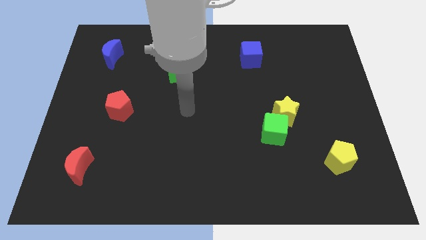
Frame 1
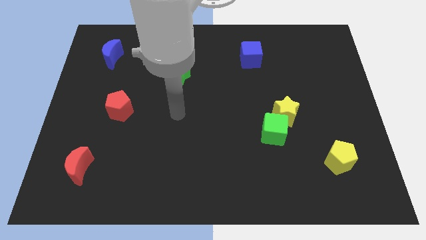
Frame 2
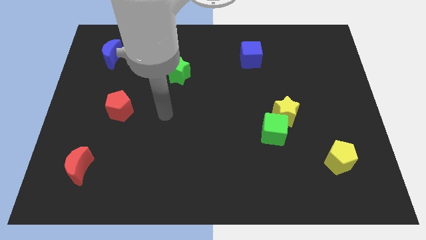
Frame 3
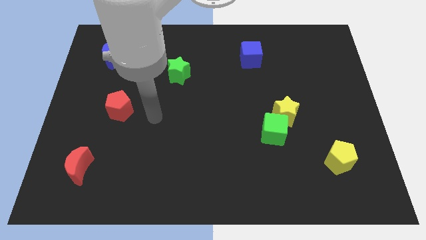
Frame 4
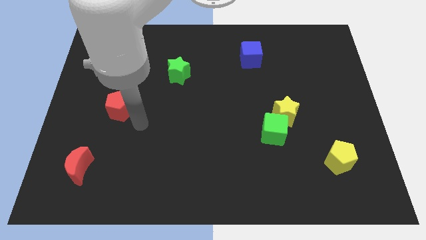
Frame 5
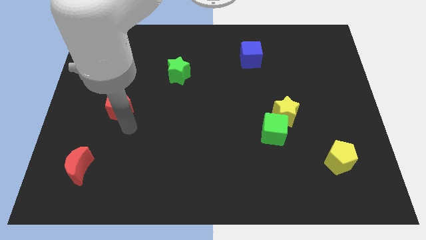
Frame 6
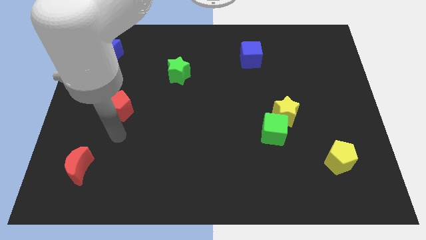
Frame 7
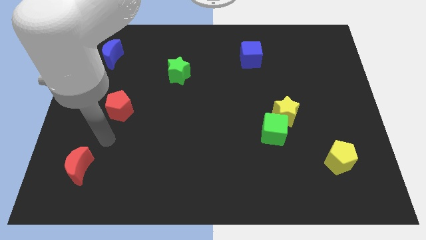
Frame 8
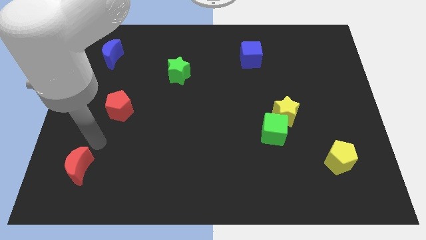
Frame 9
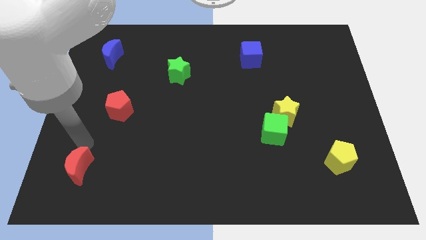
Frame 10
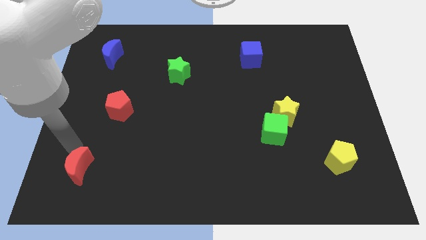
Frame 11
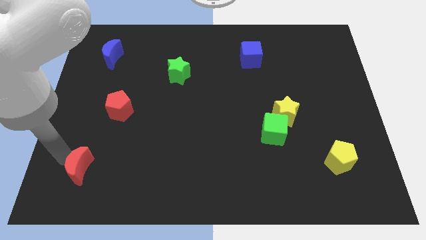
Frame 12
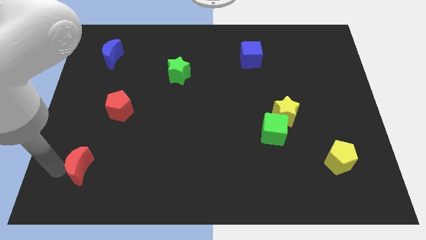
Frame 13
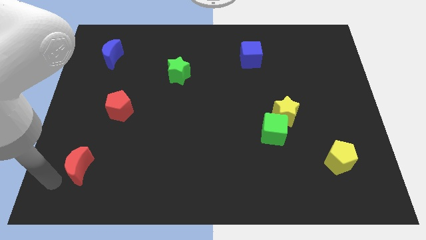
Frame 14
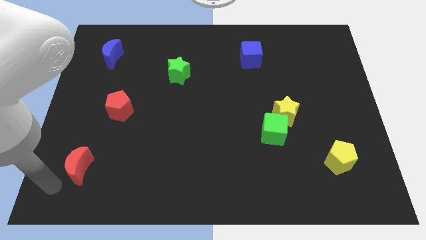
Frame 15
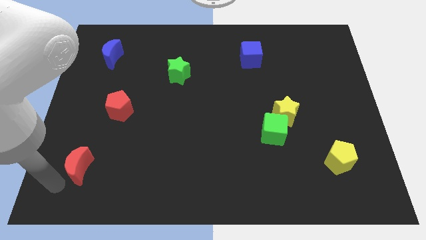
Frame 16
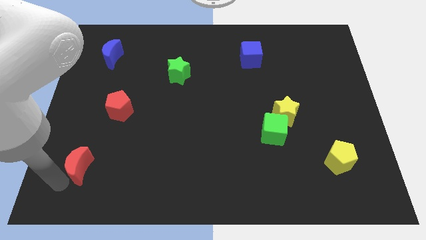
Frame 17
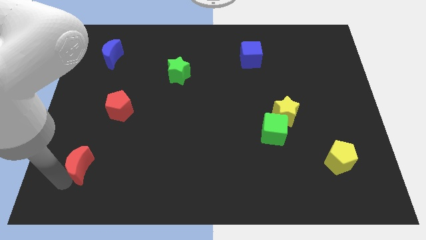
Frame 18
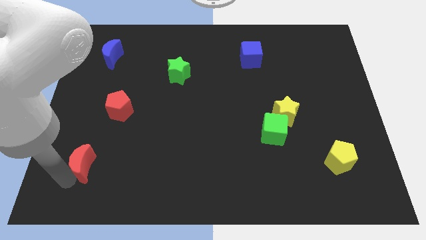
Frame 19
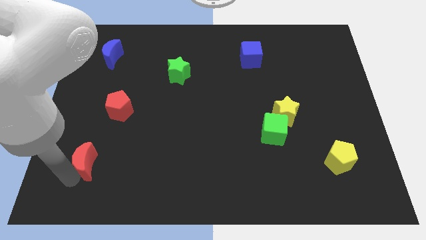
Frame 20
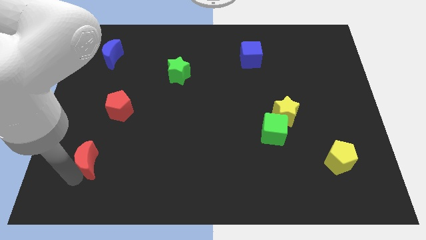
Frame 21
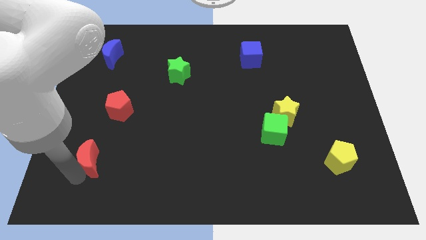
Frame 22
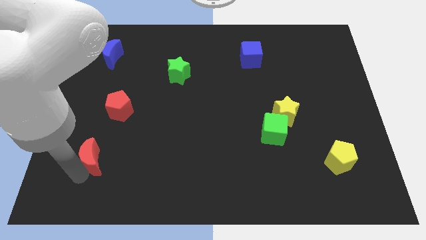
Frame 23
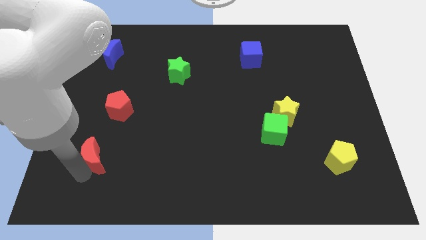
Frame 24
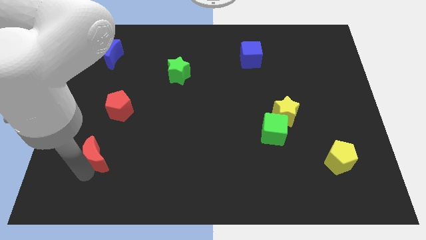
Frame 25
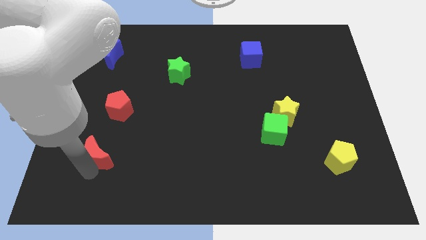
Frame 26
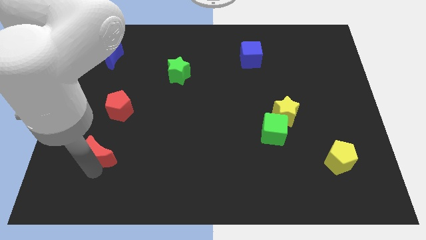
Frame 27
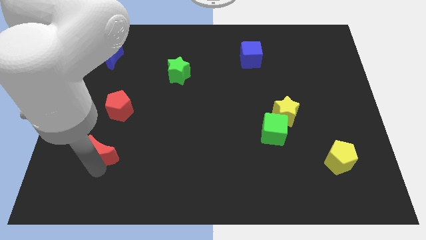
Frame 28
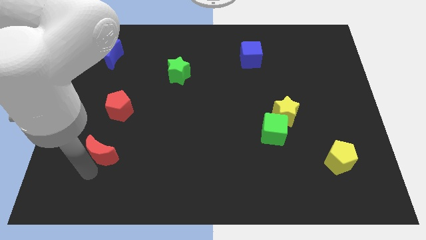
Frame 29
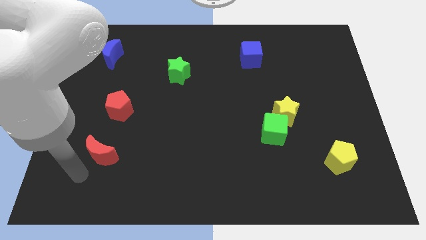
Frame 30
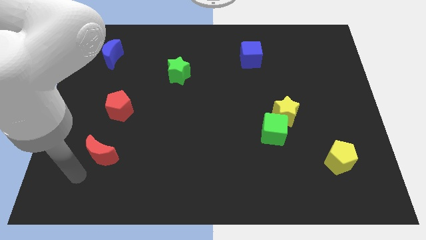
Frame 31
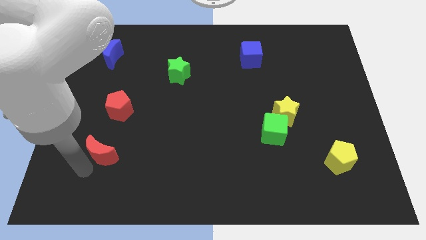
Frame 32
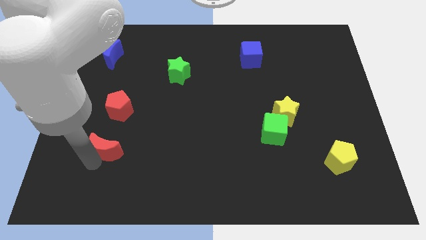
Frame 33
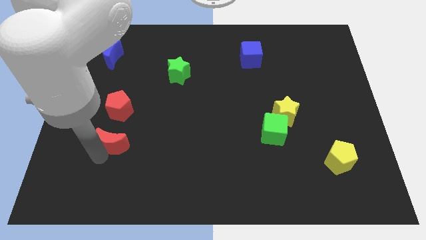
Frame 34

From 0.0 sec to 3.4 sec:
move the red moon a little bit up and then to the right

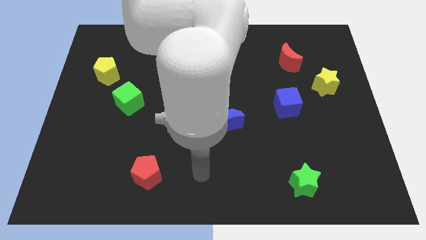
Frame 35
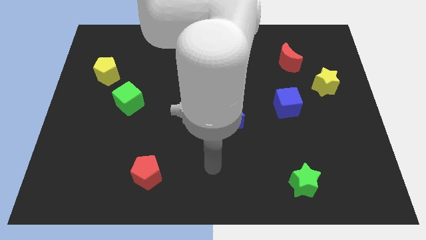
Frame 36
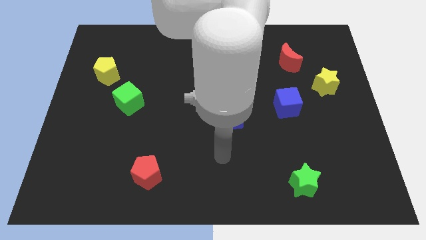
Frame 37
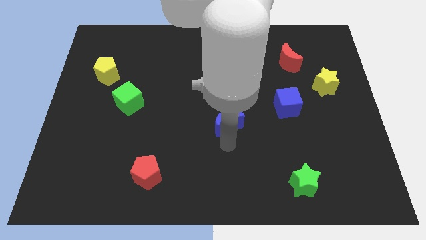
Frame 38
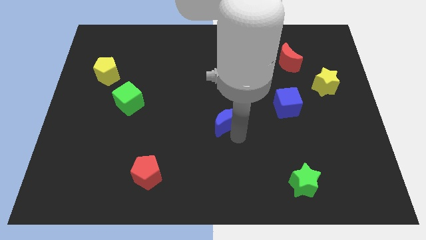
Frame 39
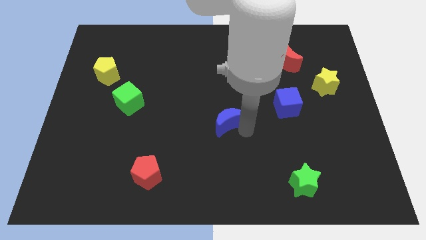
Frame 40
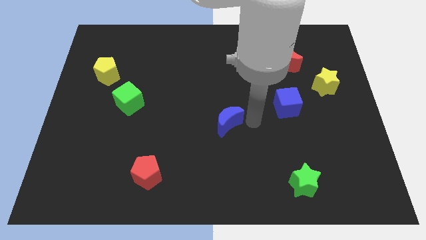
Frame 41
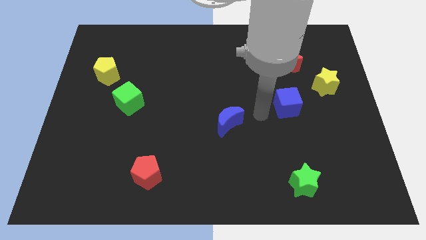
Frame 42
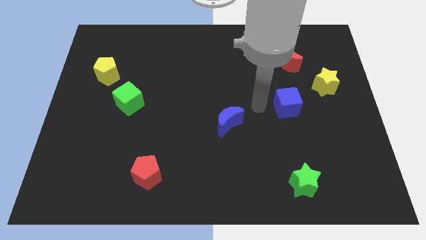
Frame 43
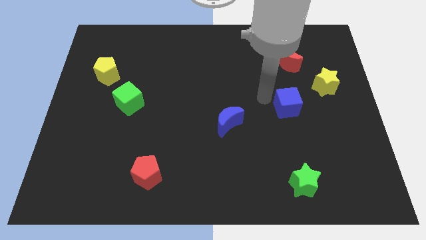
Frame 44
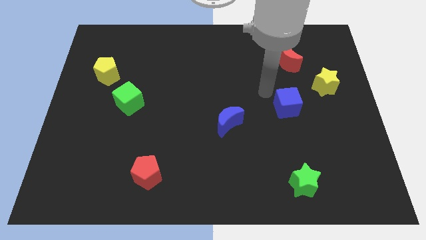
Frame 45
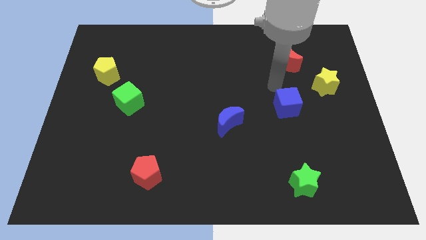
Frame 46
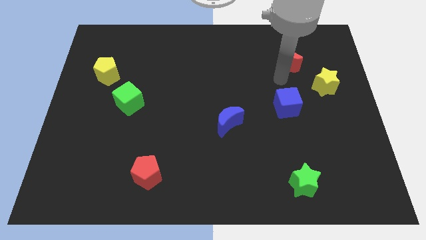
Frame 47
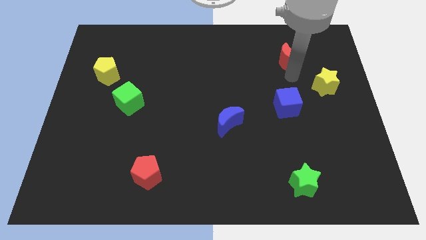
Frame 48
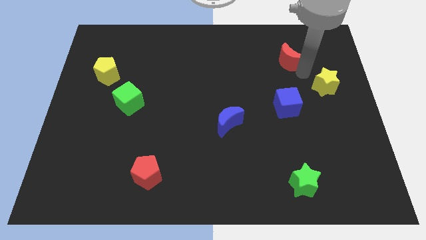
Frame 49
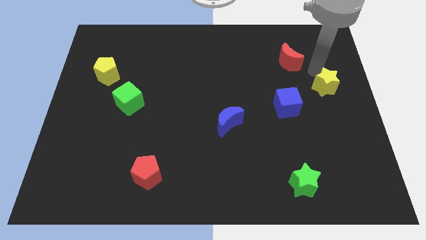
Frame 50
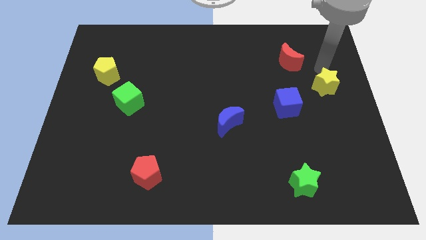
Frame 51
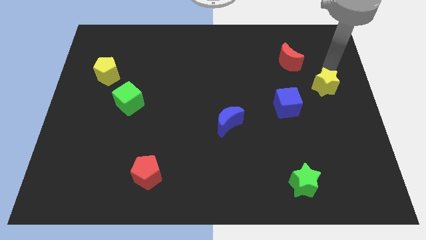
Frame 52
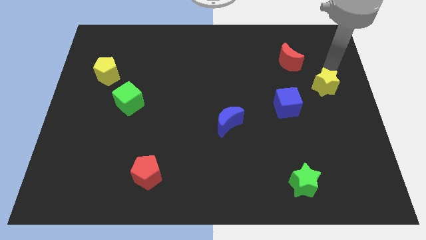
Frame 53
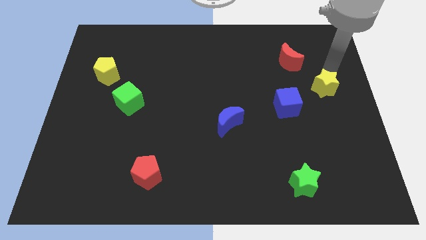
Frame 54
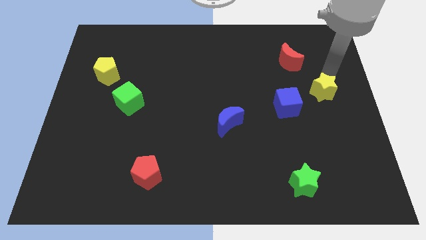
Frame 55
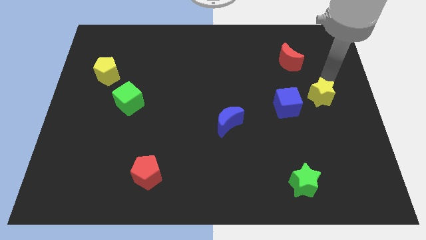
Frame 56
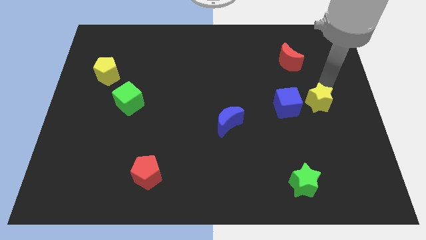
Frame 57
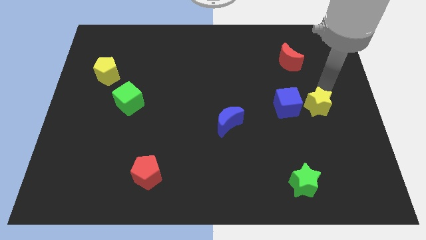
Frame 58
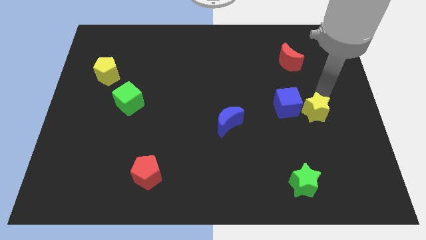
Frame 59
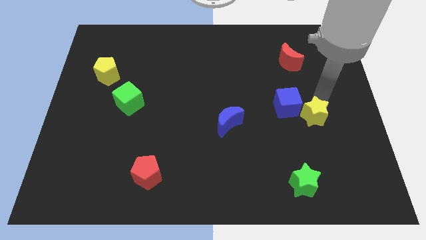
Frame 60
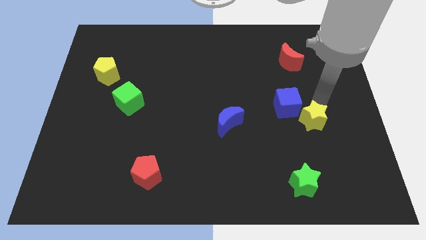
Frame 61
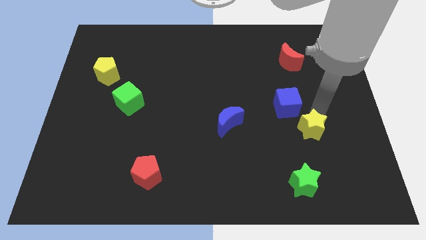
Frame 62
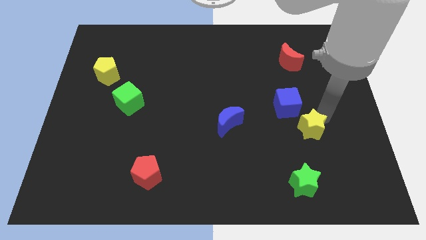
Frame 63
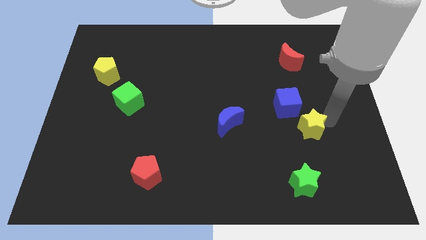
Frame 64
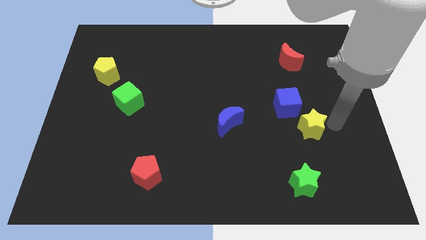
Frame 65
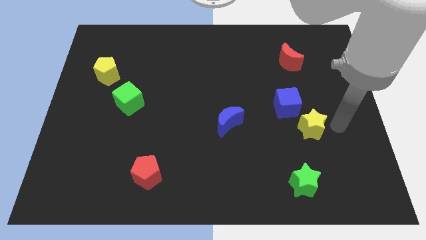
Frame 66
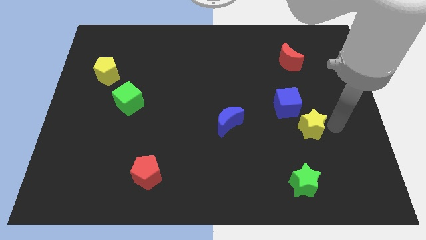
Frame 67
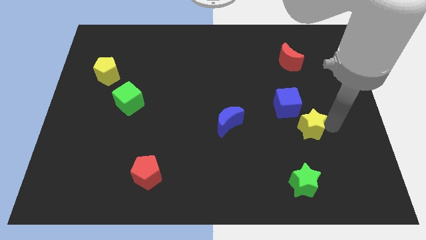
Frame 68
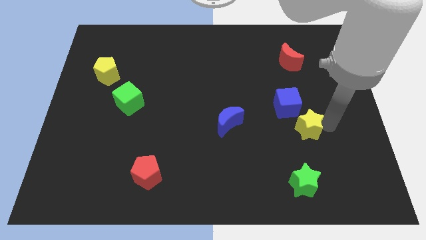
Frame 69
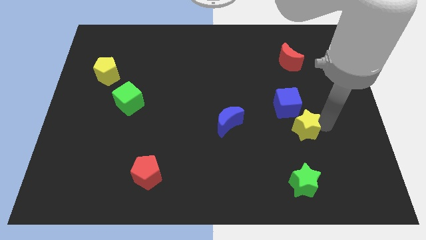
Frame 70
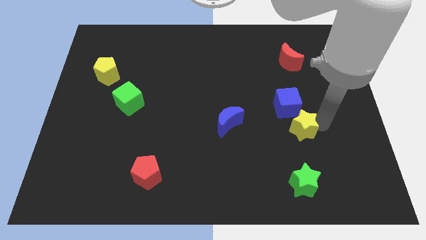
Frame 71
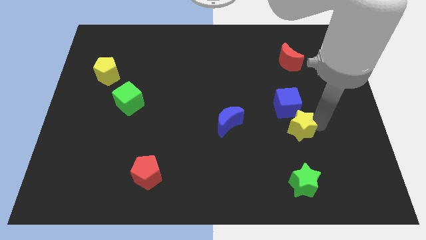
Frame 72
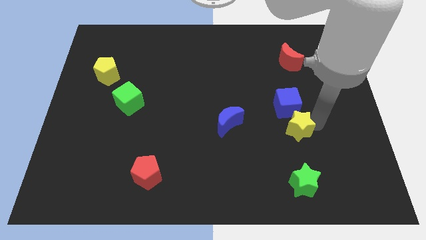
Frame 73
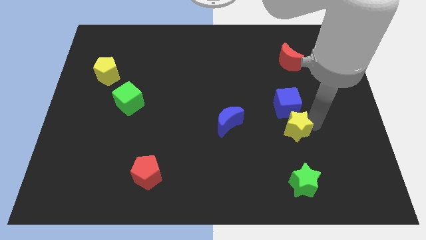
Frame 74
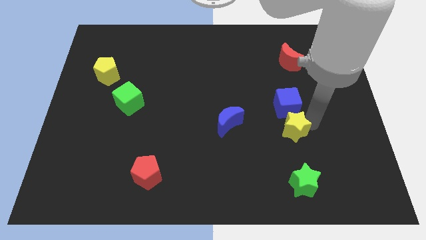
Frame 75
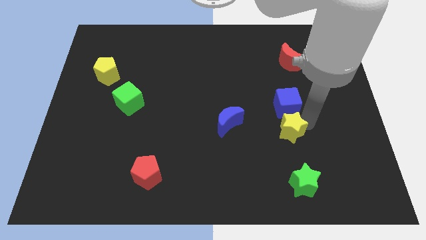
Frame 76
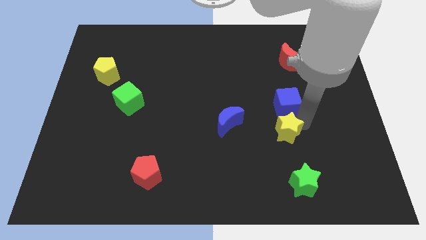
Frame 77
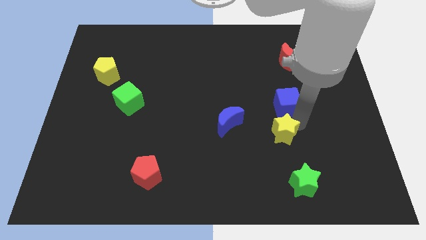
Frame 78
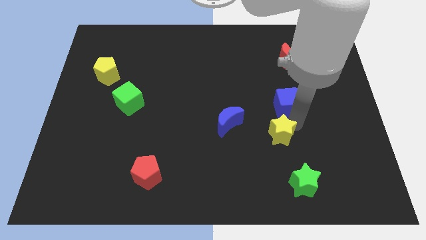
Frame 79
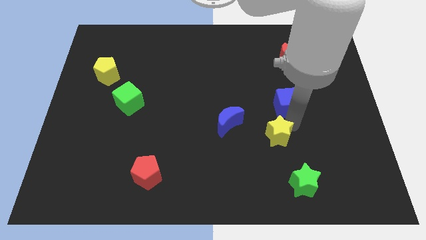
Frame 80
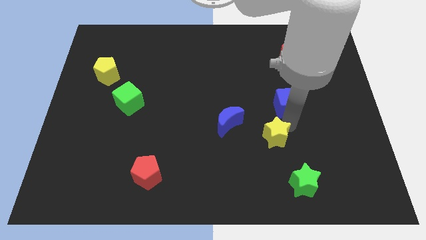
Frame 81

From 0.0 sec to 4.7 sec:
move the yellow star diagonally downwards and to the left
